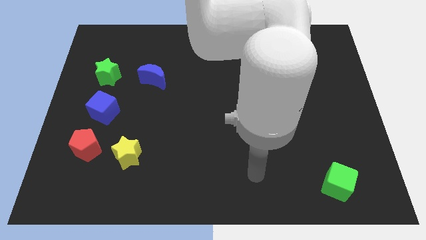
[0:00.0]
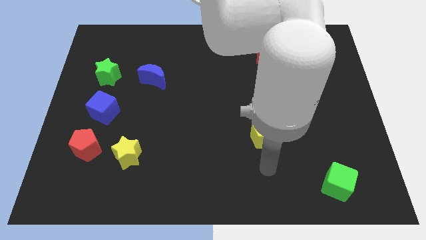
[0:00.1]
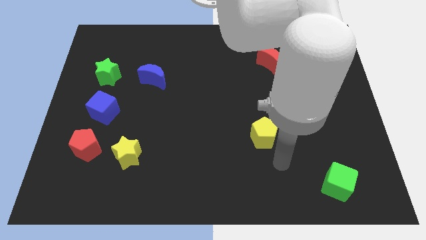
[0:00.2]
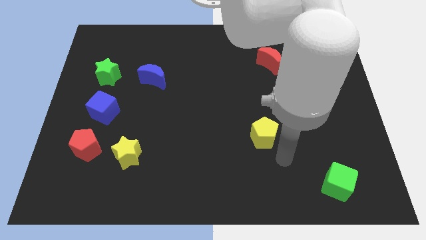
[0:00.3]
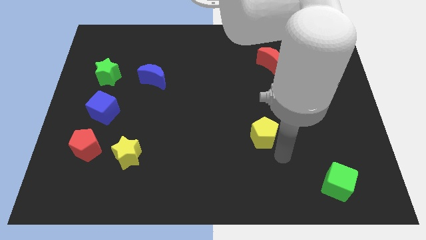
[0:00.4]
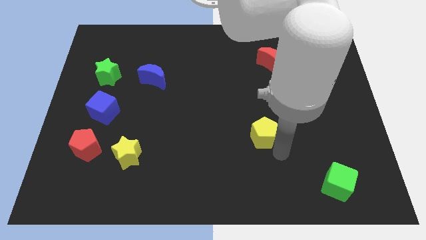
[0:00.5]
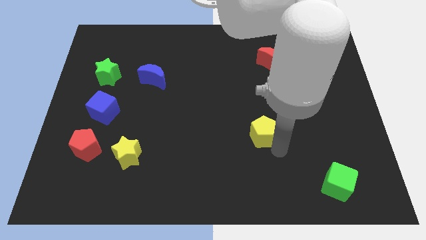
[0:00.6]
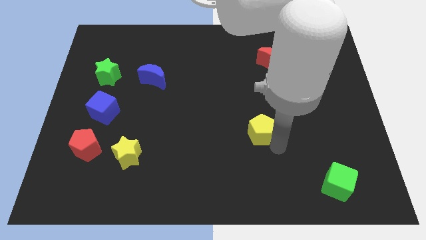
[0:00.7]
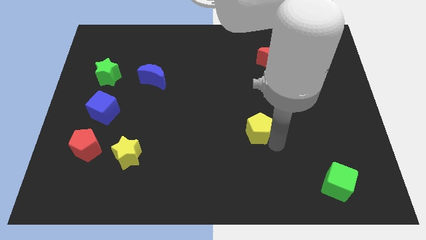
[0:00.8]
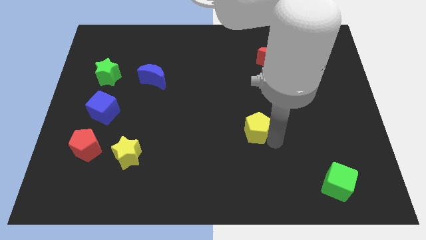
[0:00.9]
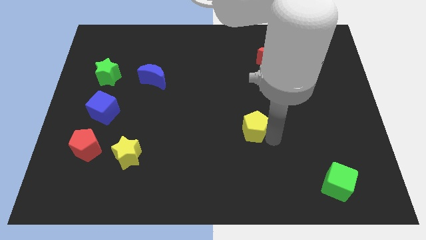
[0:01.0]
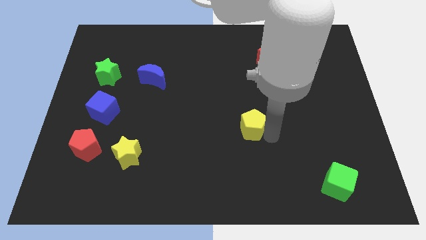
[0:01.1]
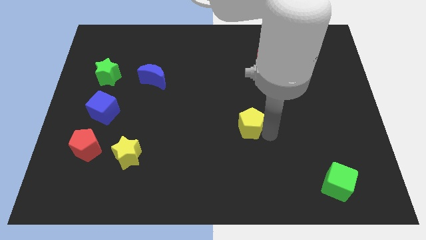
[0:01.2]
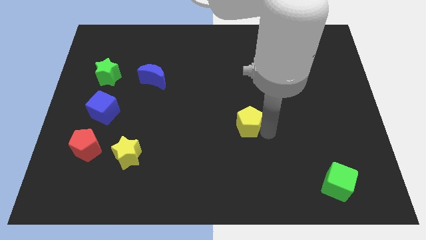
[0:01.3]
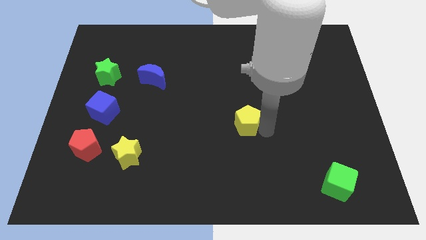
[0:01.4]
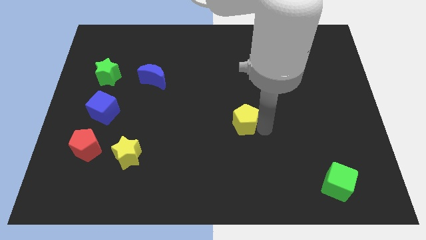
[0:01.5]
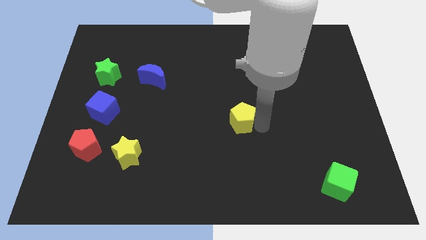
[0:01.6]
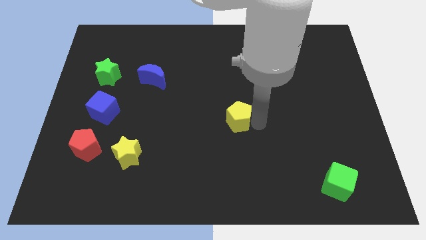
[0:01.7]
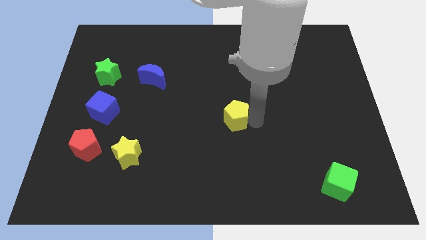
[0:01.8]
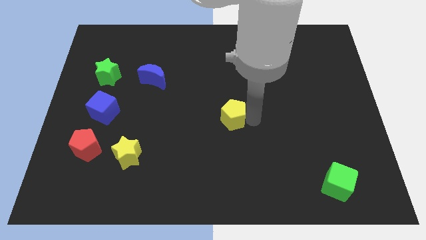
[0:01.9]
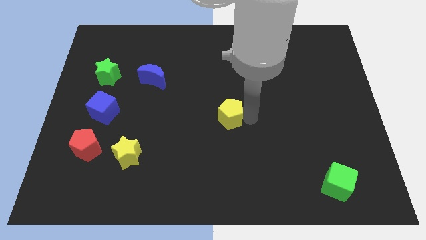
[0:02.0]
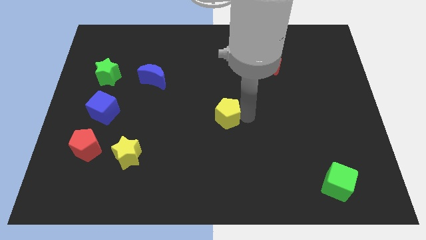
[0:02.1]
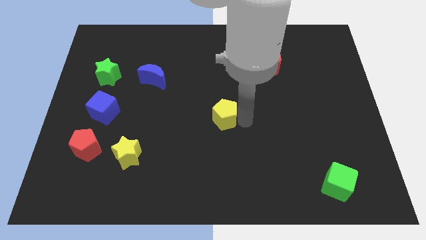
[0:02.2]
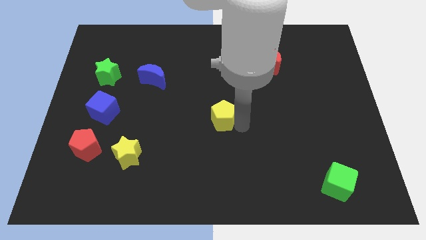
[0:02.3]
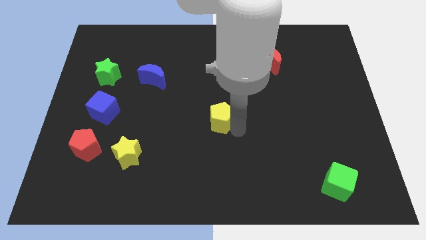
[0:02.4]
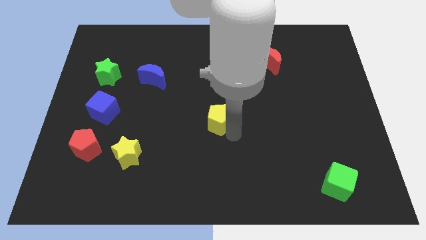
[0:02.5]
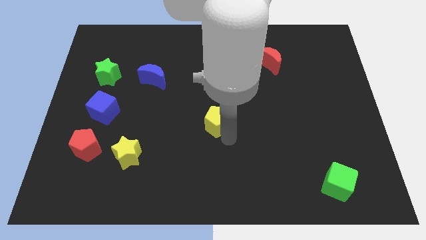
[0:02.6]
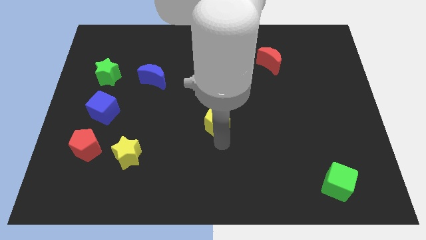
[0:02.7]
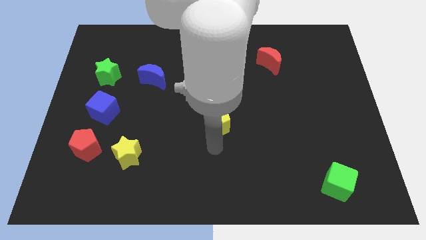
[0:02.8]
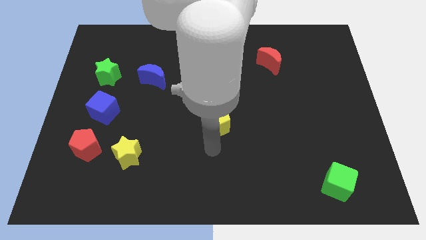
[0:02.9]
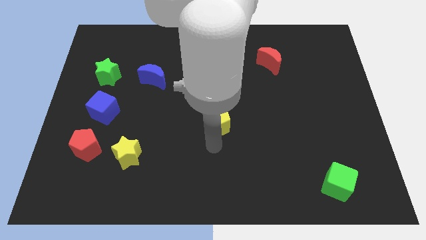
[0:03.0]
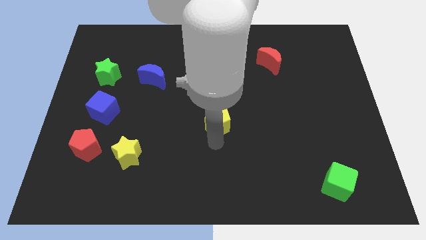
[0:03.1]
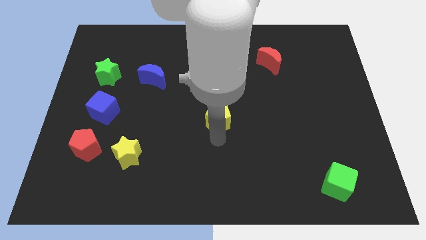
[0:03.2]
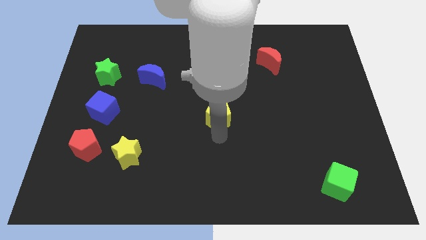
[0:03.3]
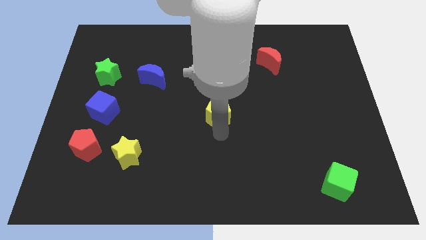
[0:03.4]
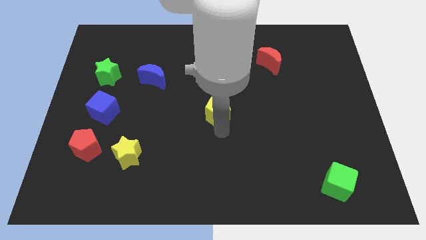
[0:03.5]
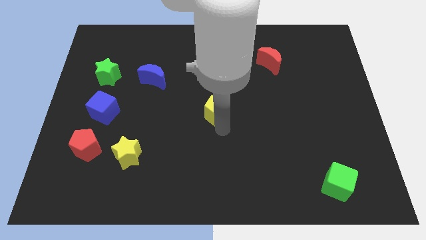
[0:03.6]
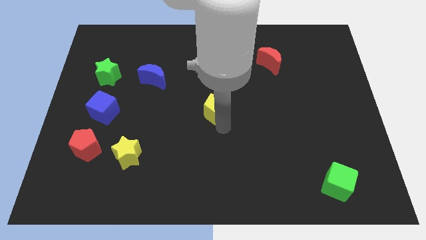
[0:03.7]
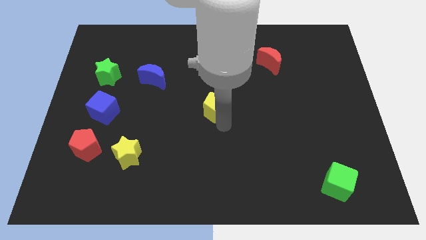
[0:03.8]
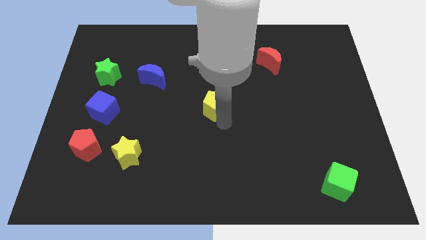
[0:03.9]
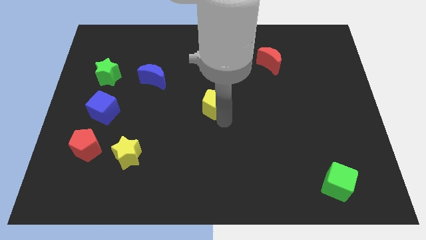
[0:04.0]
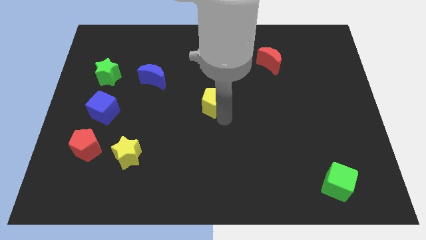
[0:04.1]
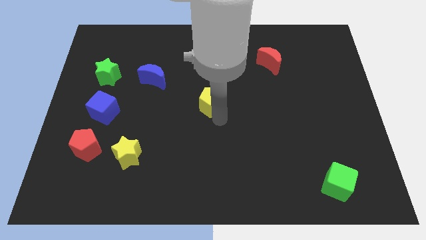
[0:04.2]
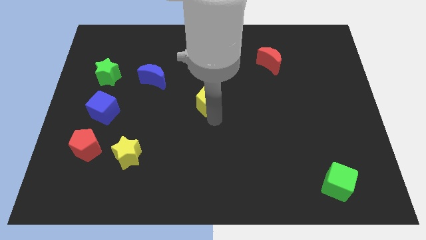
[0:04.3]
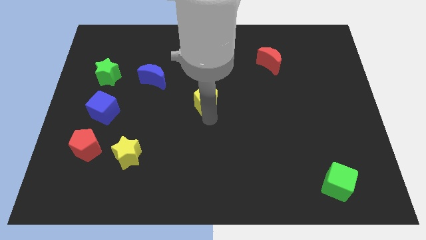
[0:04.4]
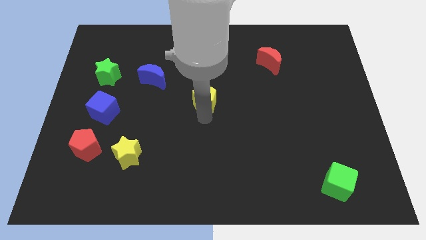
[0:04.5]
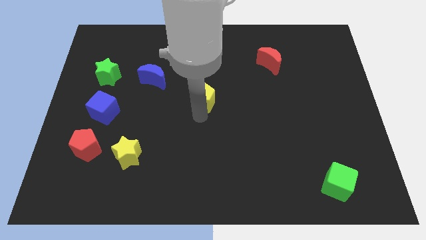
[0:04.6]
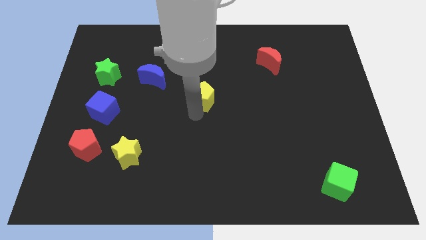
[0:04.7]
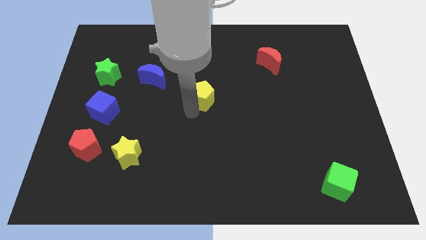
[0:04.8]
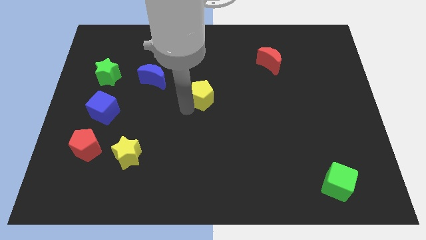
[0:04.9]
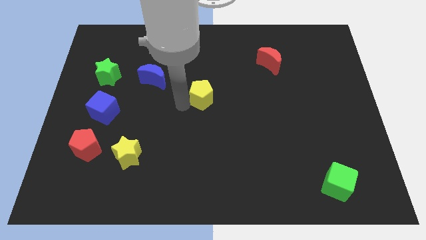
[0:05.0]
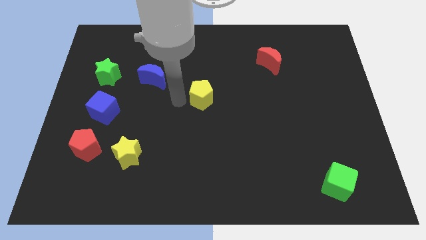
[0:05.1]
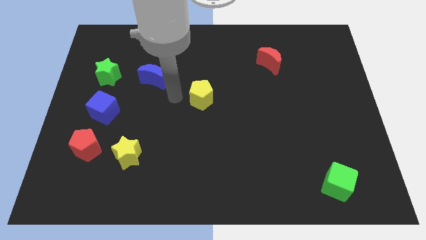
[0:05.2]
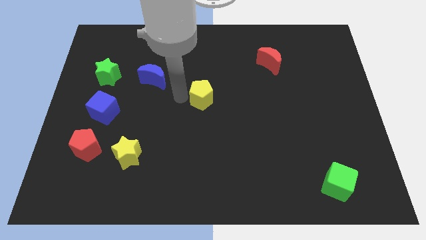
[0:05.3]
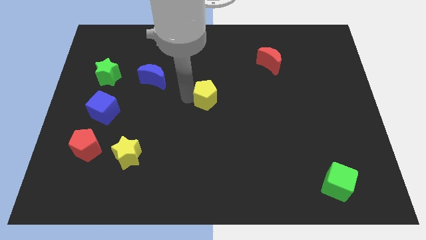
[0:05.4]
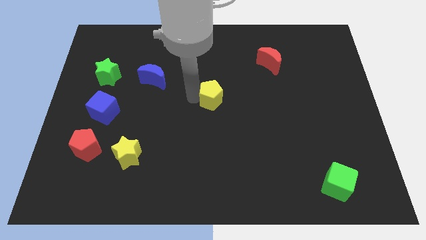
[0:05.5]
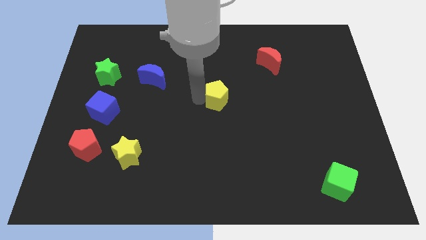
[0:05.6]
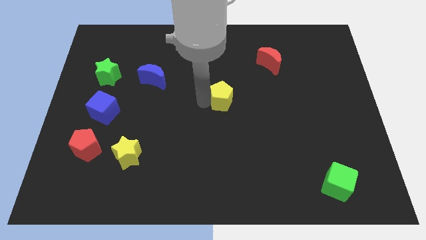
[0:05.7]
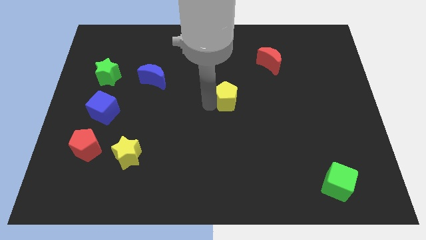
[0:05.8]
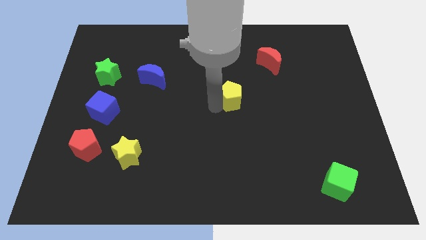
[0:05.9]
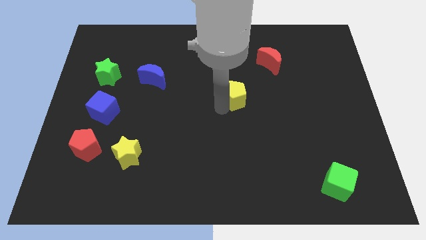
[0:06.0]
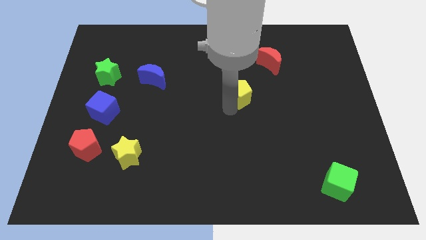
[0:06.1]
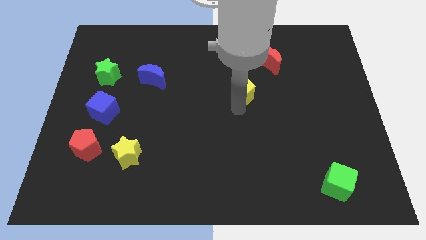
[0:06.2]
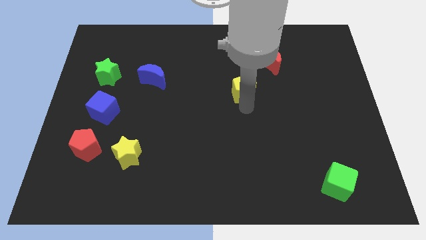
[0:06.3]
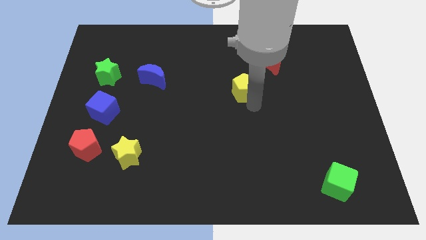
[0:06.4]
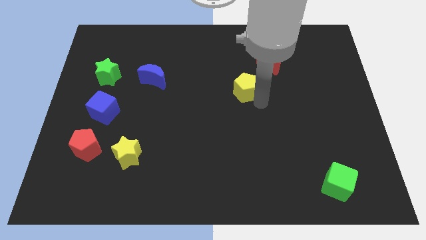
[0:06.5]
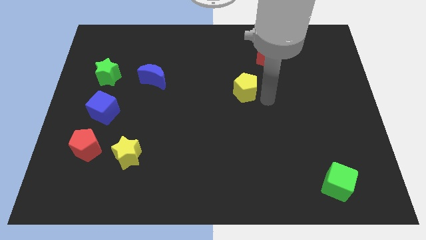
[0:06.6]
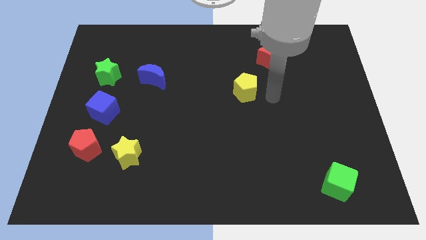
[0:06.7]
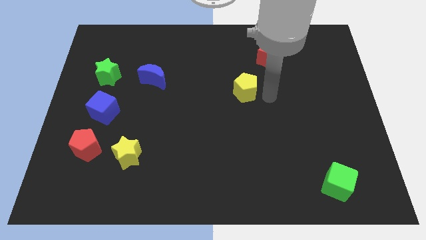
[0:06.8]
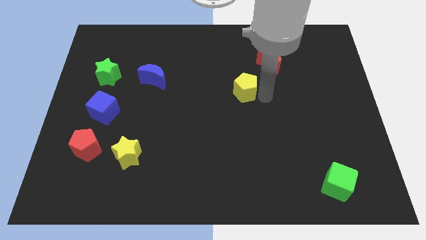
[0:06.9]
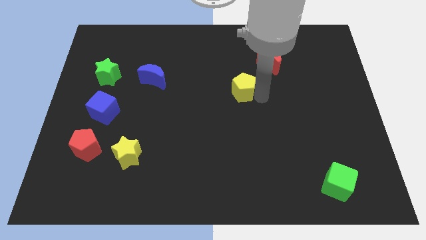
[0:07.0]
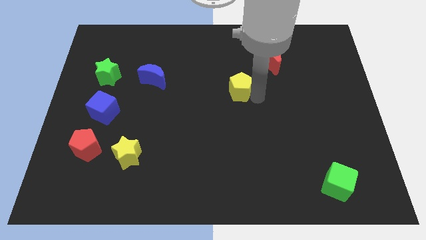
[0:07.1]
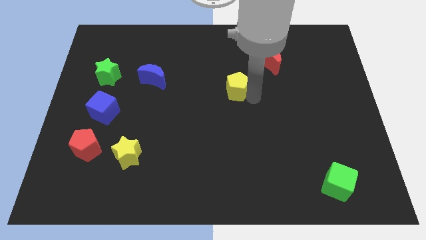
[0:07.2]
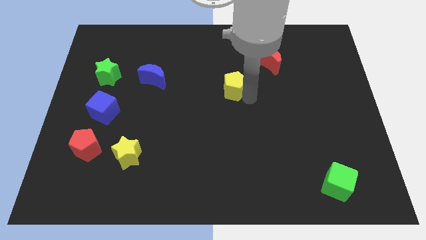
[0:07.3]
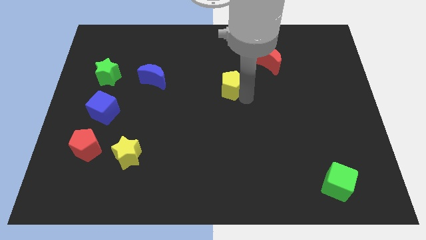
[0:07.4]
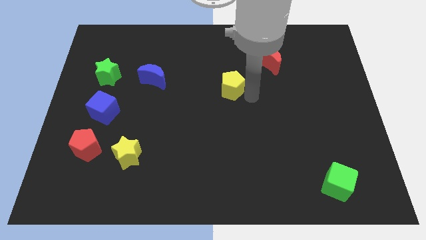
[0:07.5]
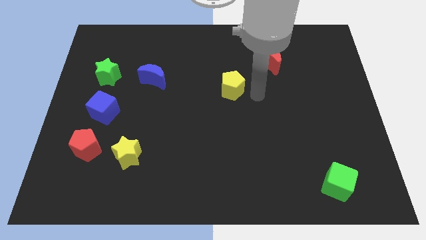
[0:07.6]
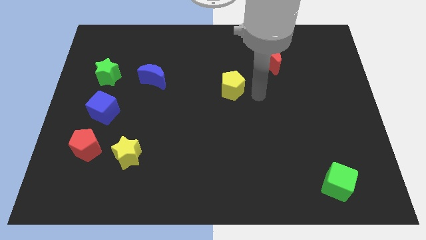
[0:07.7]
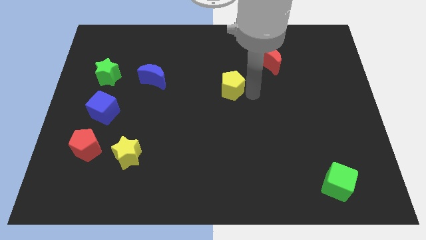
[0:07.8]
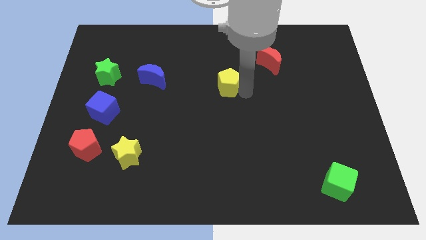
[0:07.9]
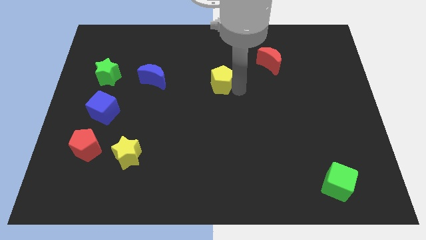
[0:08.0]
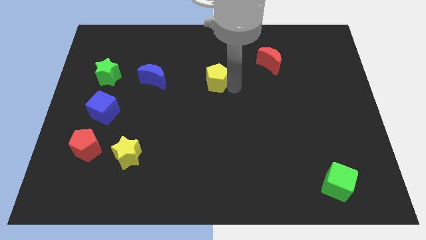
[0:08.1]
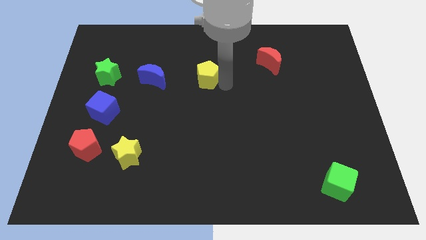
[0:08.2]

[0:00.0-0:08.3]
move the yellow pentagon up and to the left
